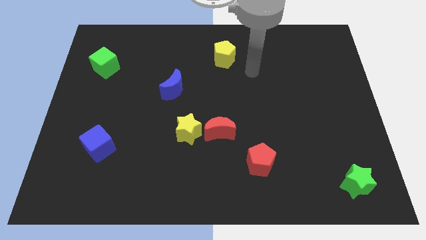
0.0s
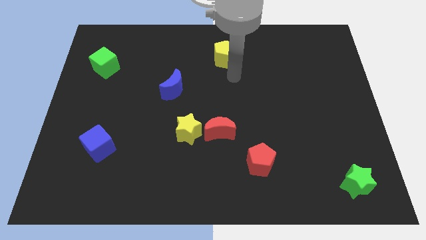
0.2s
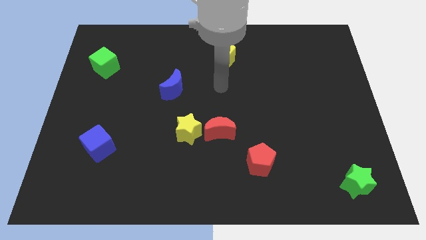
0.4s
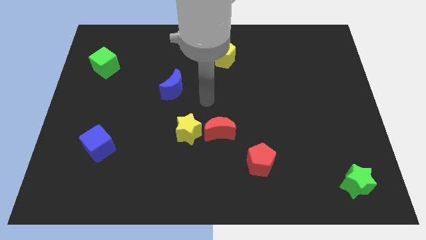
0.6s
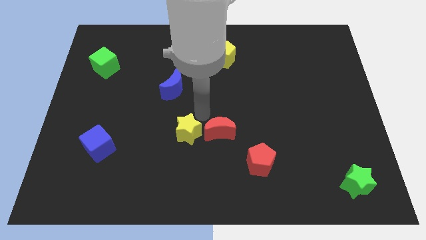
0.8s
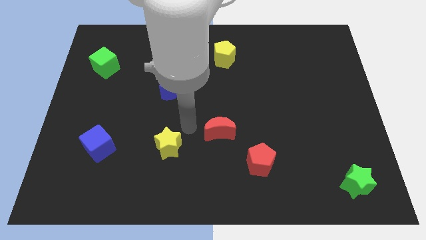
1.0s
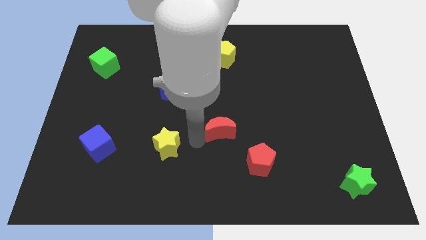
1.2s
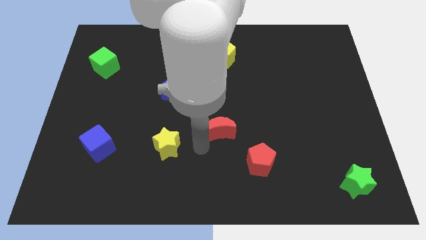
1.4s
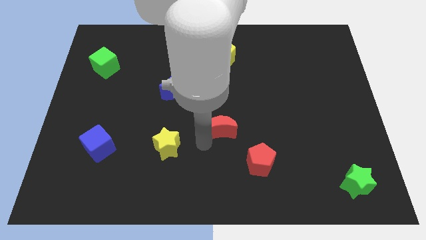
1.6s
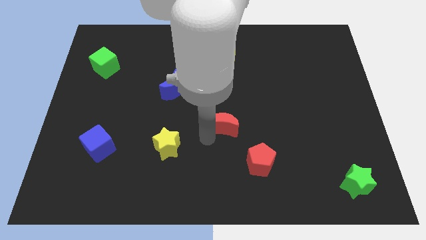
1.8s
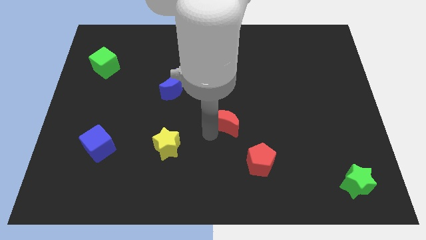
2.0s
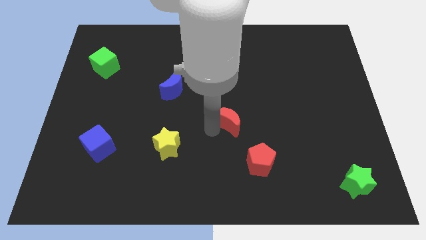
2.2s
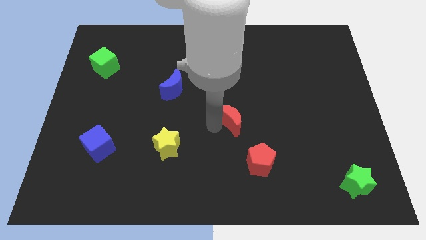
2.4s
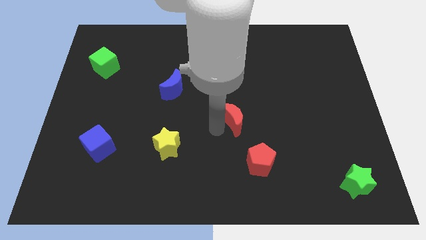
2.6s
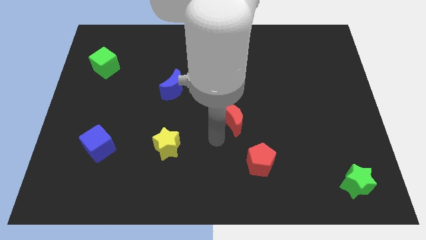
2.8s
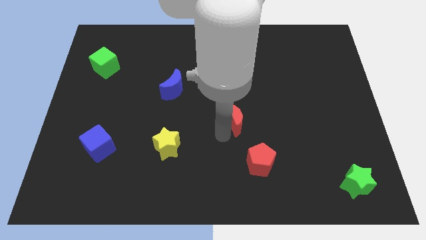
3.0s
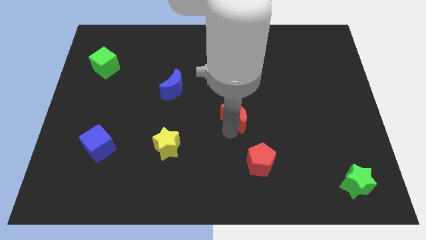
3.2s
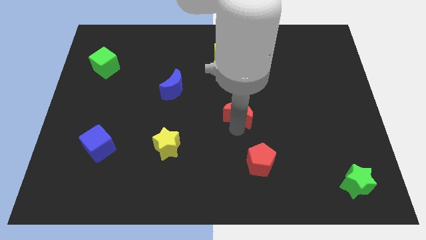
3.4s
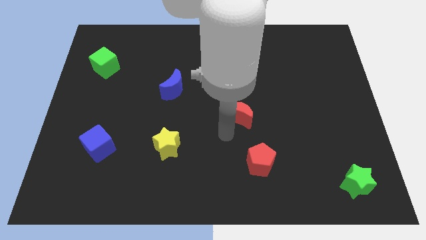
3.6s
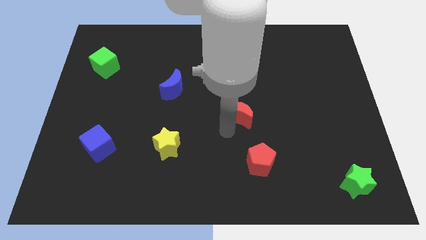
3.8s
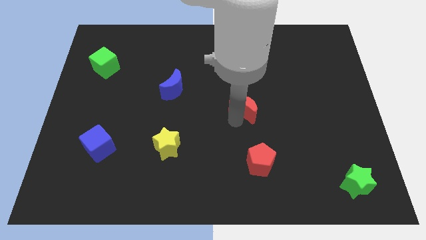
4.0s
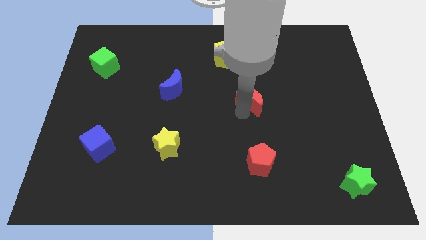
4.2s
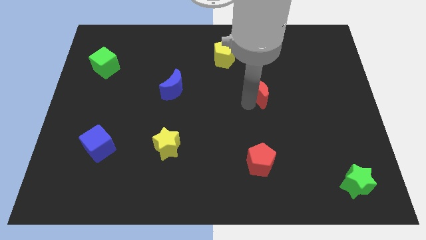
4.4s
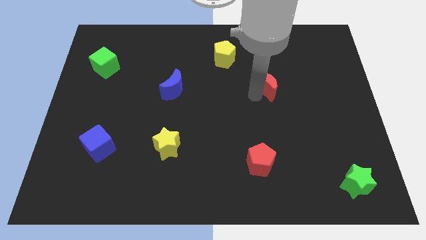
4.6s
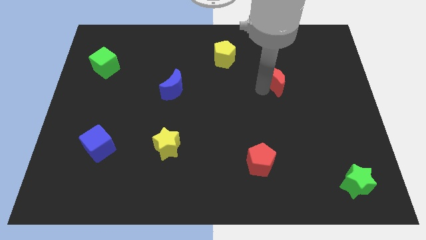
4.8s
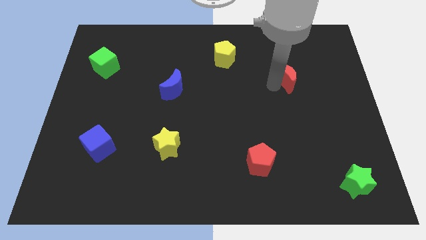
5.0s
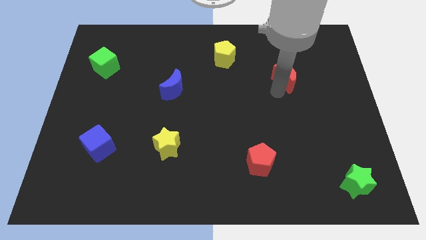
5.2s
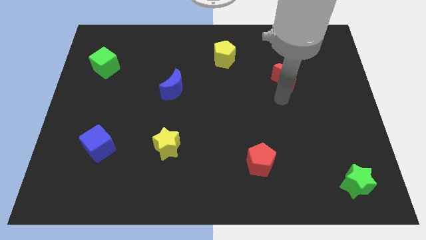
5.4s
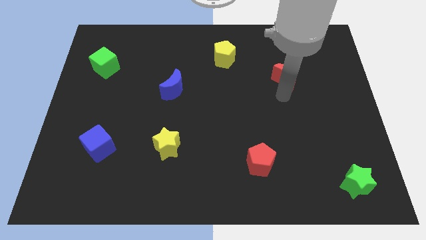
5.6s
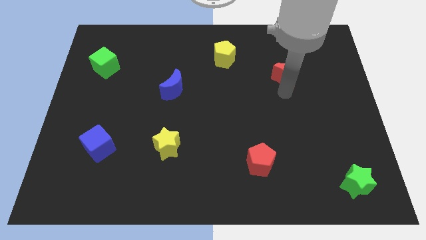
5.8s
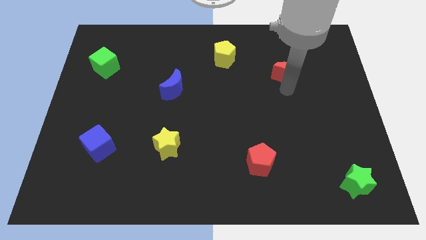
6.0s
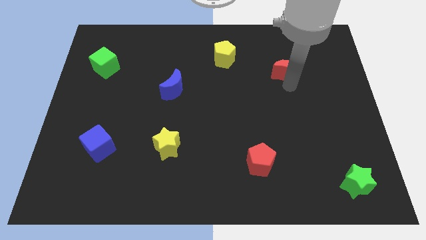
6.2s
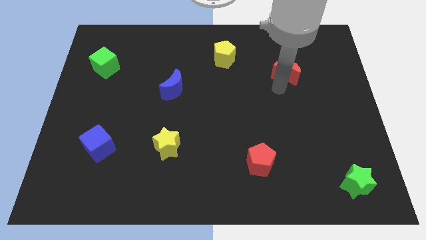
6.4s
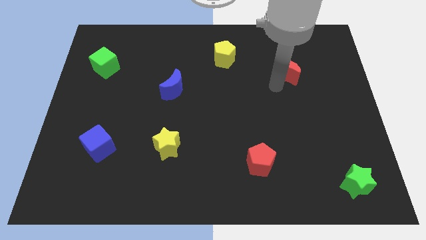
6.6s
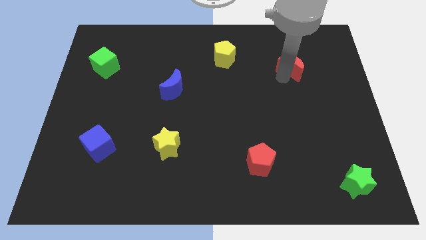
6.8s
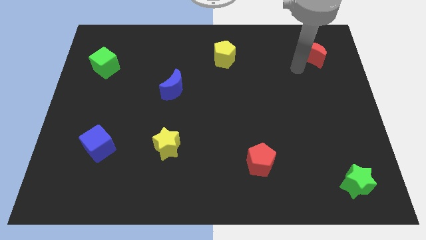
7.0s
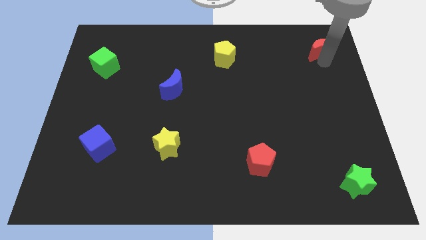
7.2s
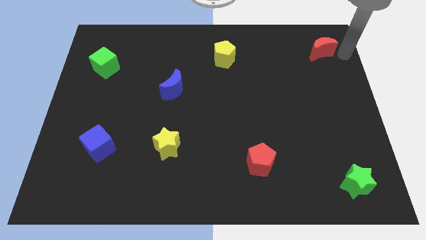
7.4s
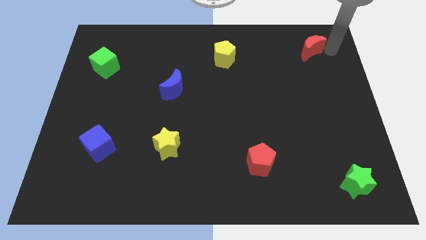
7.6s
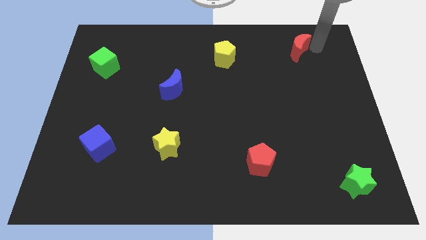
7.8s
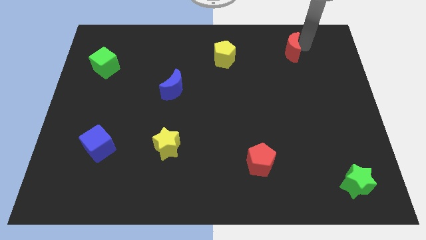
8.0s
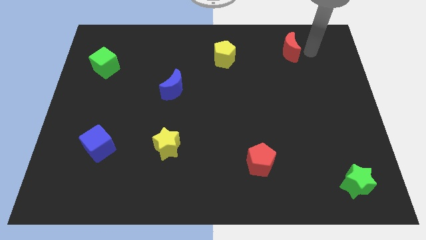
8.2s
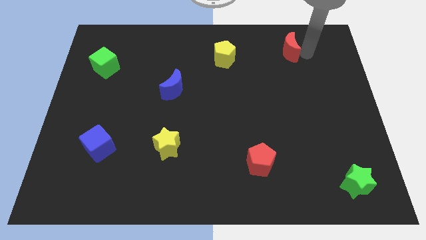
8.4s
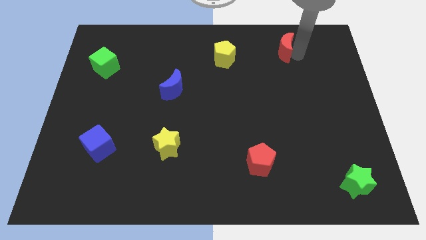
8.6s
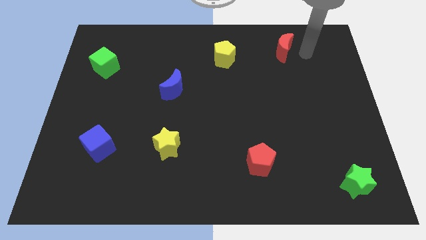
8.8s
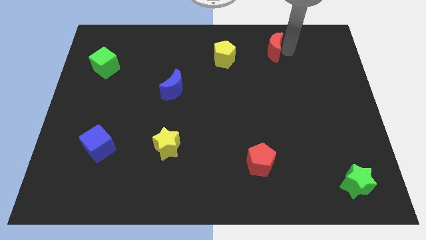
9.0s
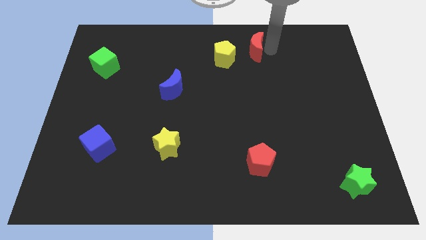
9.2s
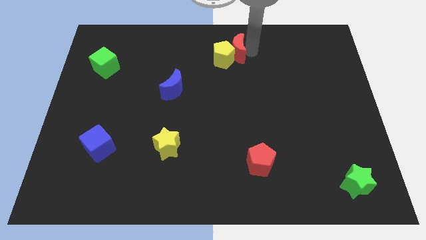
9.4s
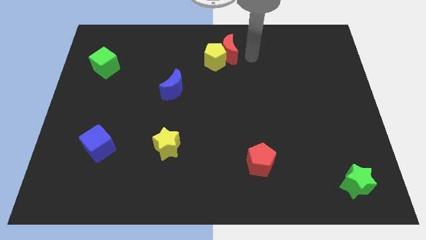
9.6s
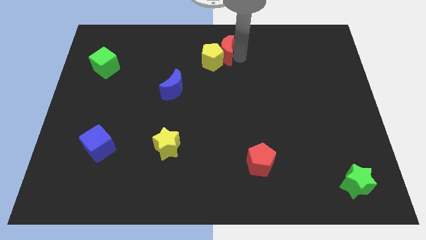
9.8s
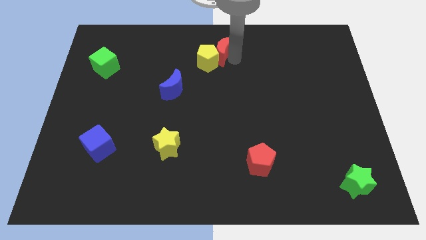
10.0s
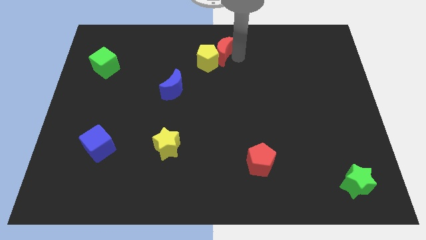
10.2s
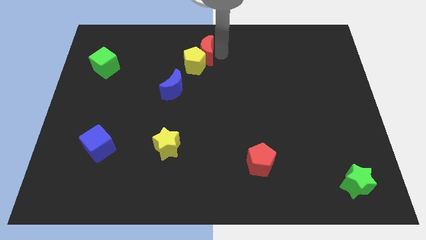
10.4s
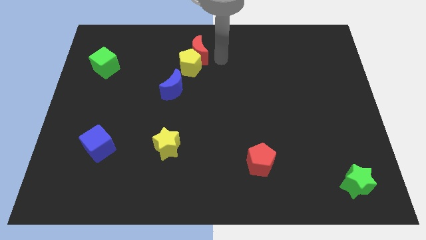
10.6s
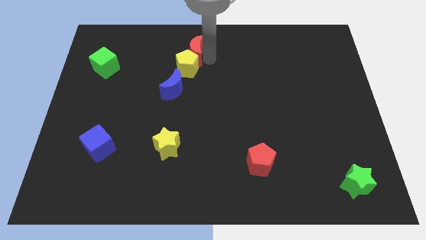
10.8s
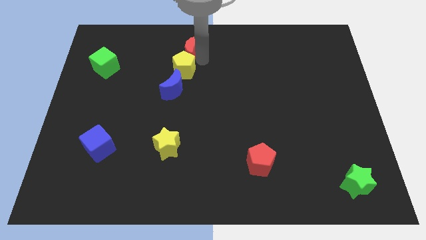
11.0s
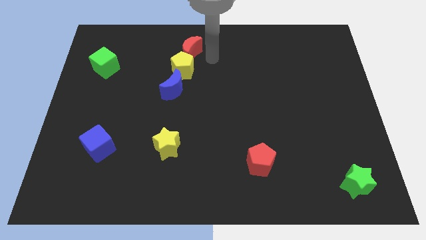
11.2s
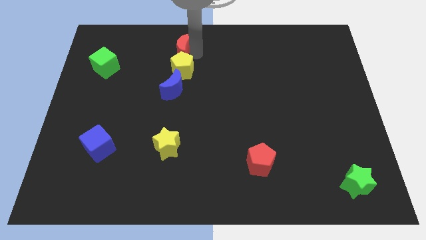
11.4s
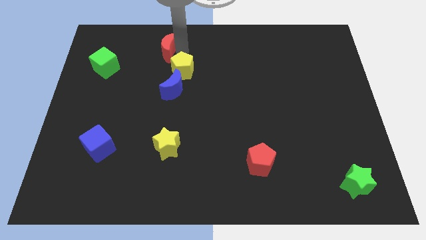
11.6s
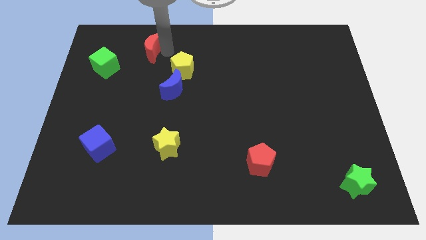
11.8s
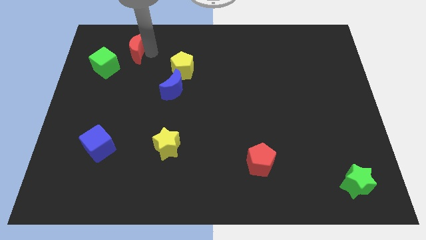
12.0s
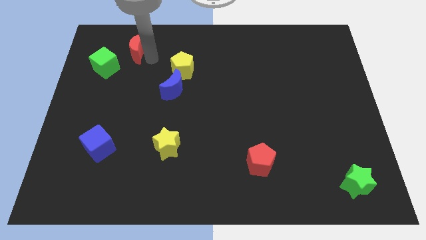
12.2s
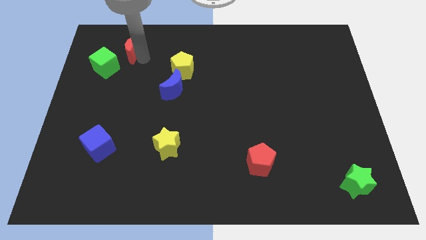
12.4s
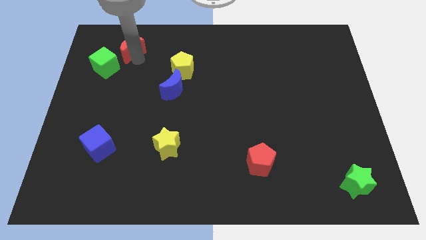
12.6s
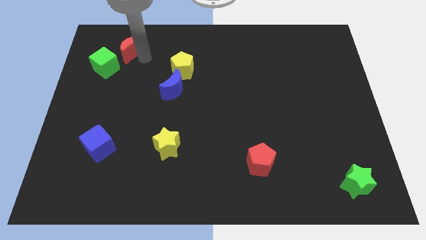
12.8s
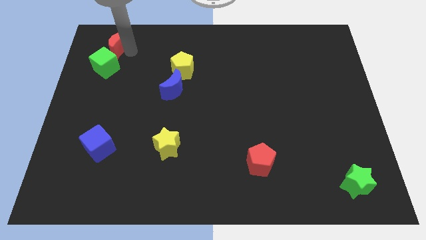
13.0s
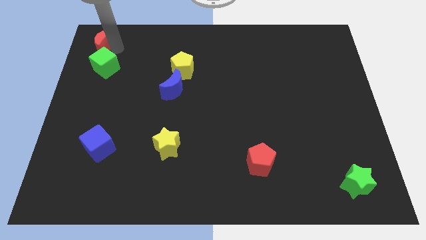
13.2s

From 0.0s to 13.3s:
push the red moon to the top left of the board
